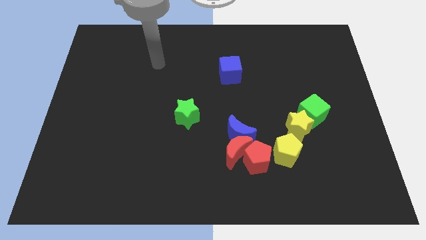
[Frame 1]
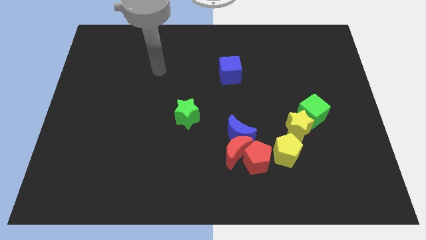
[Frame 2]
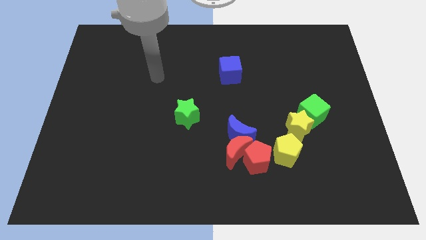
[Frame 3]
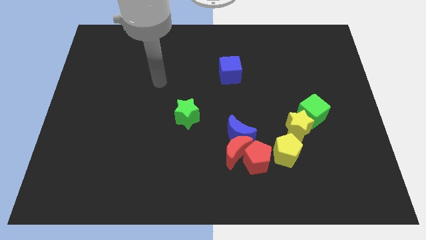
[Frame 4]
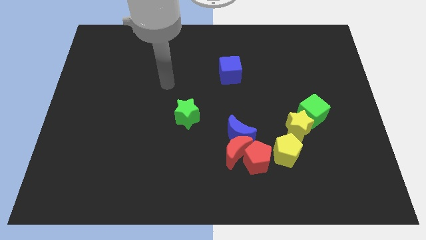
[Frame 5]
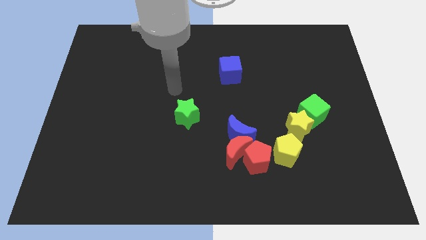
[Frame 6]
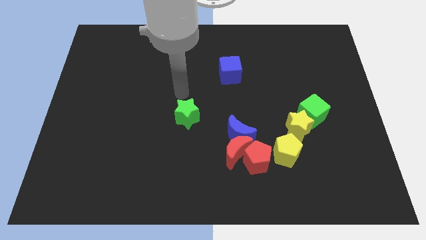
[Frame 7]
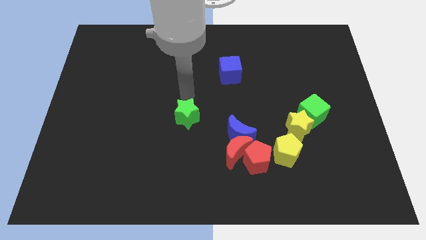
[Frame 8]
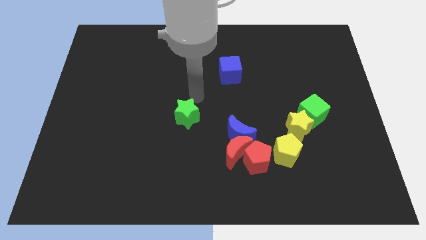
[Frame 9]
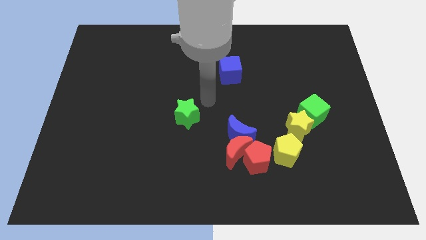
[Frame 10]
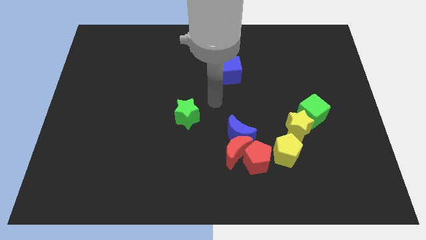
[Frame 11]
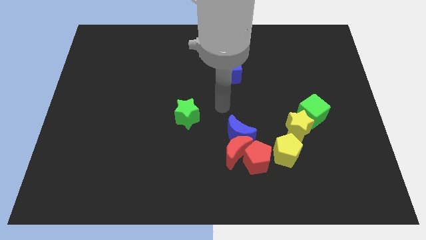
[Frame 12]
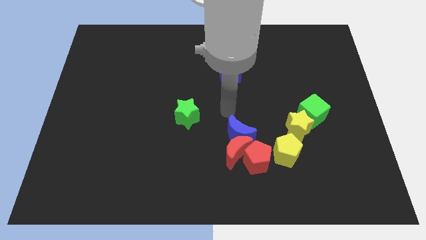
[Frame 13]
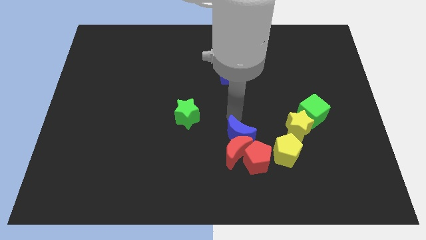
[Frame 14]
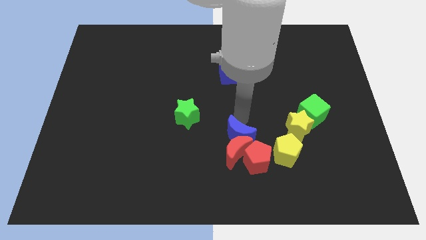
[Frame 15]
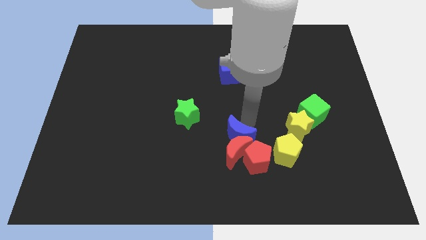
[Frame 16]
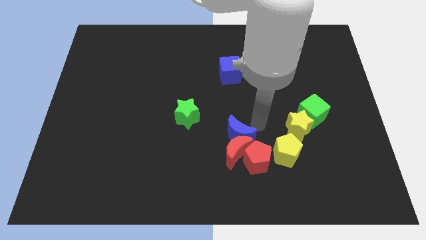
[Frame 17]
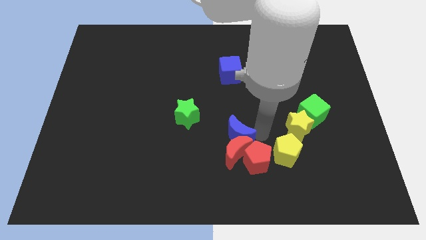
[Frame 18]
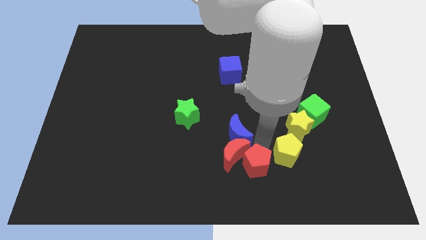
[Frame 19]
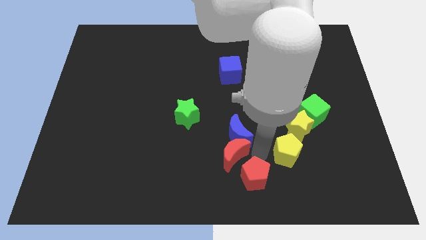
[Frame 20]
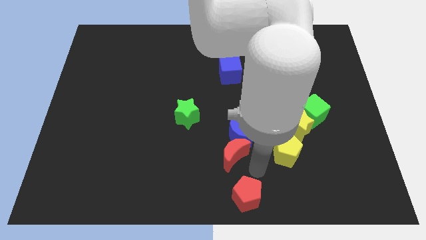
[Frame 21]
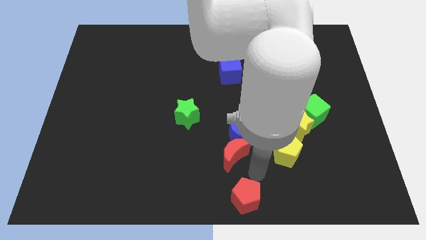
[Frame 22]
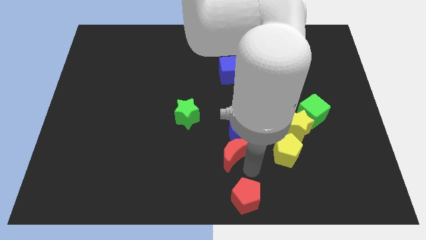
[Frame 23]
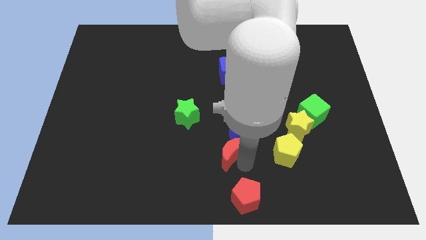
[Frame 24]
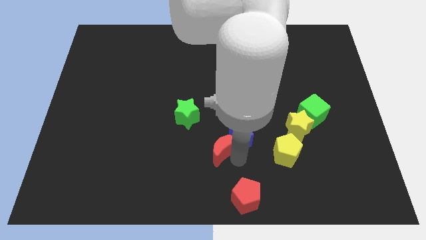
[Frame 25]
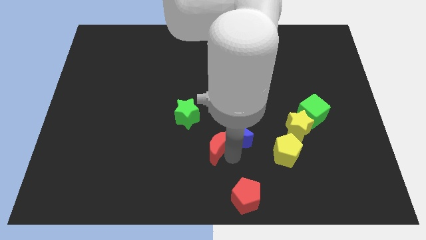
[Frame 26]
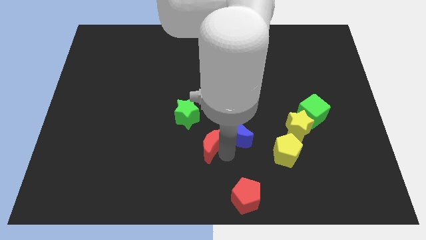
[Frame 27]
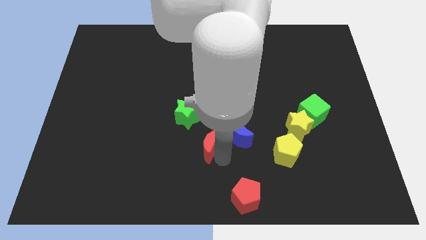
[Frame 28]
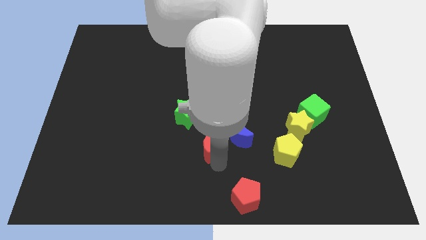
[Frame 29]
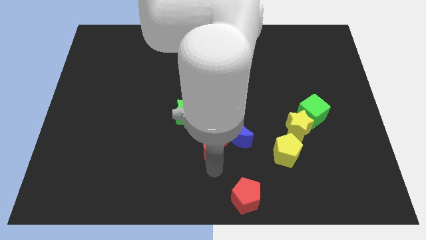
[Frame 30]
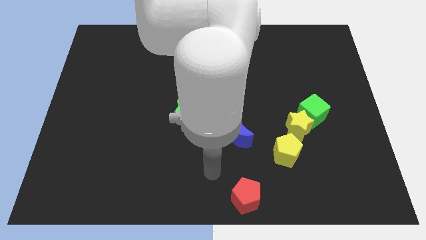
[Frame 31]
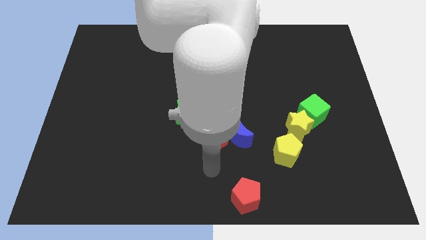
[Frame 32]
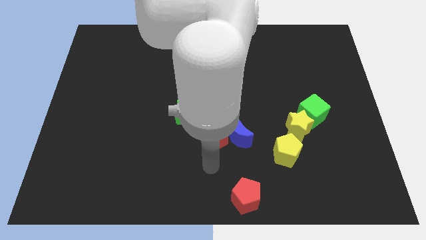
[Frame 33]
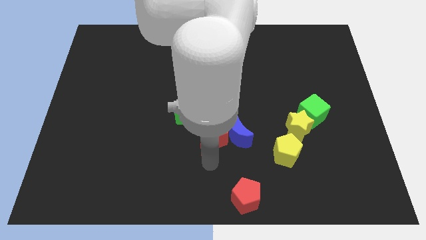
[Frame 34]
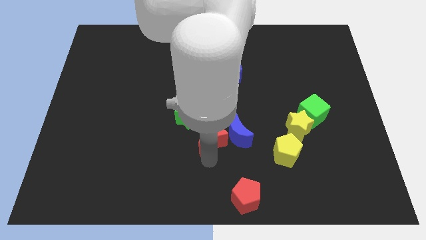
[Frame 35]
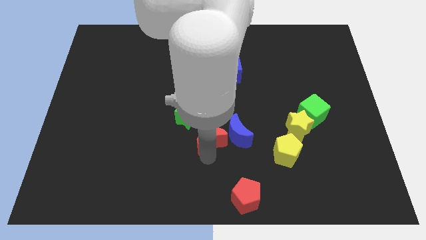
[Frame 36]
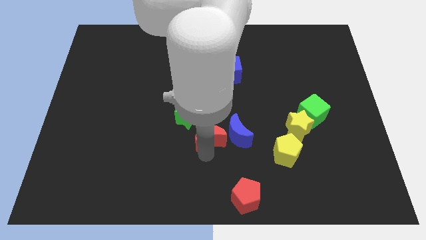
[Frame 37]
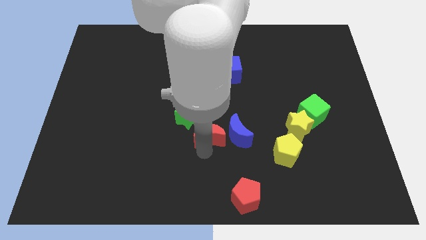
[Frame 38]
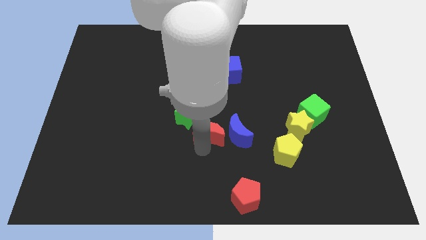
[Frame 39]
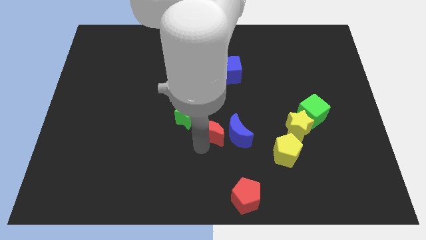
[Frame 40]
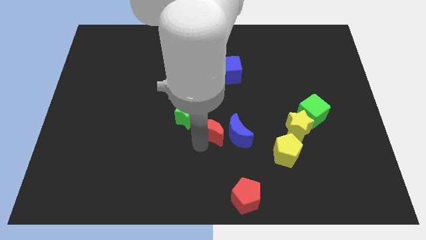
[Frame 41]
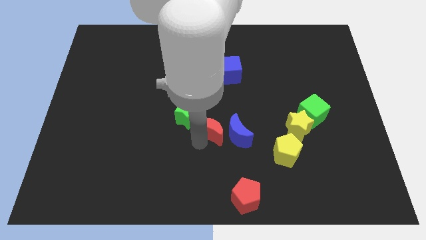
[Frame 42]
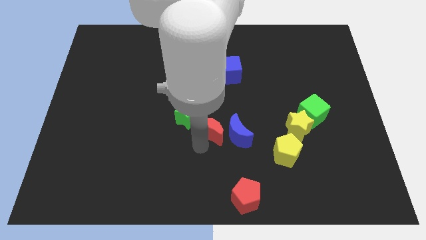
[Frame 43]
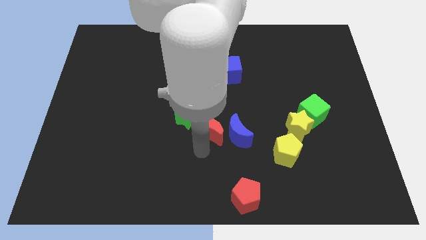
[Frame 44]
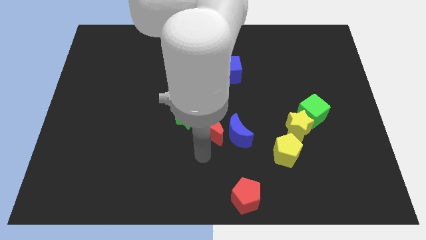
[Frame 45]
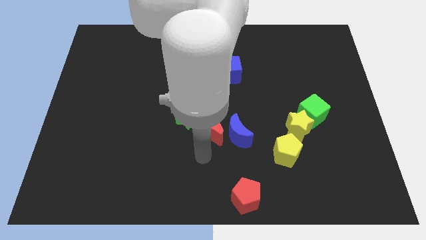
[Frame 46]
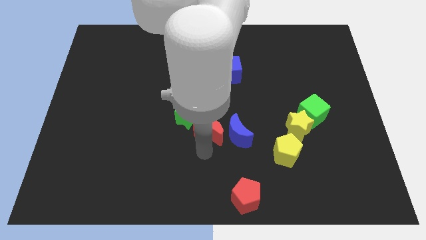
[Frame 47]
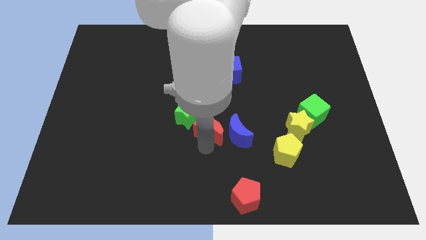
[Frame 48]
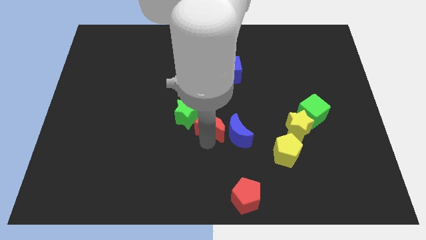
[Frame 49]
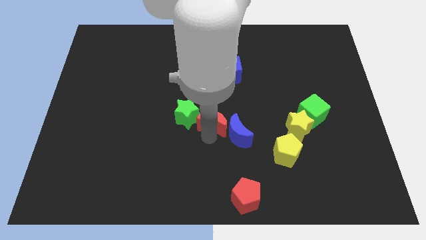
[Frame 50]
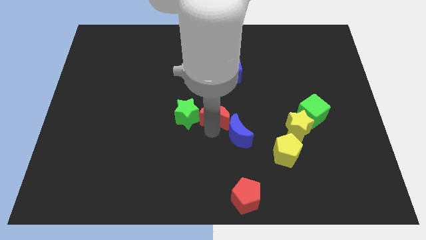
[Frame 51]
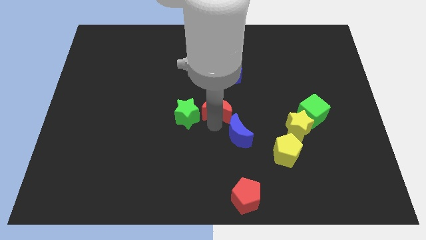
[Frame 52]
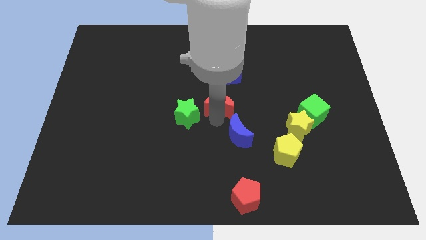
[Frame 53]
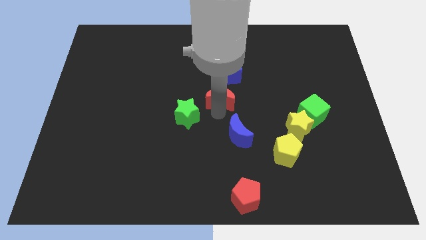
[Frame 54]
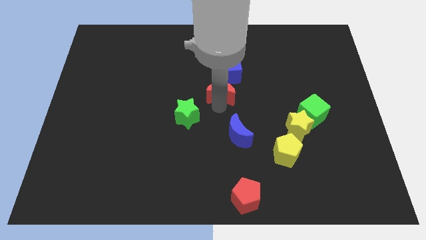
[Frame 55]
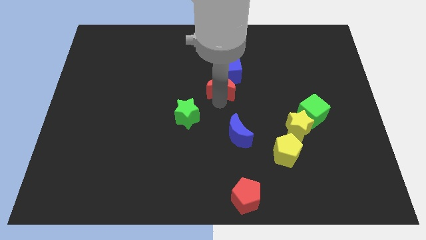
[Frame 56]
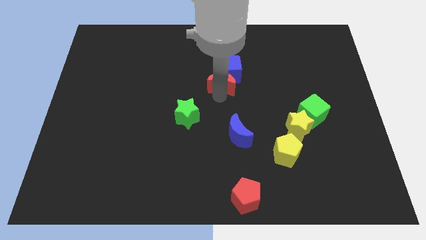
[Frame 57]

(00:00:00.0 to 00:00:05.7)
push the red moon to the blue cube

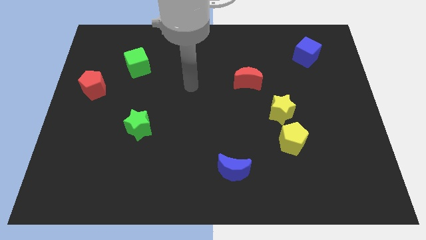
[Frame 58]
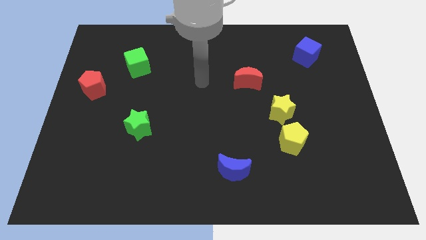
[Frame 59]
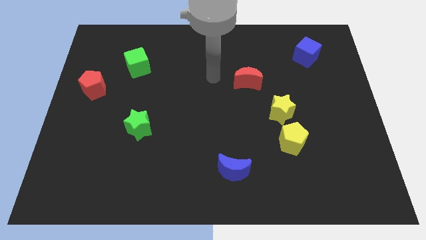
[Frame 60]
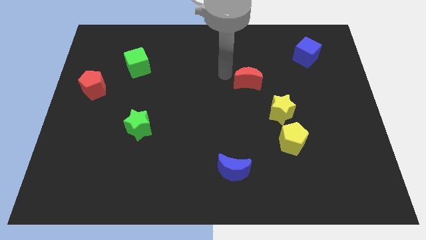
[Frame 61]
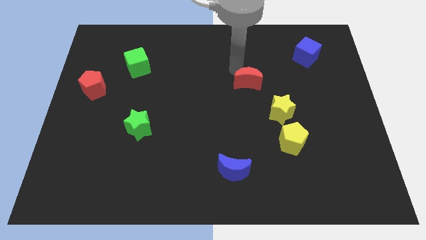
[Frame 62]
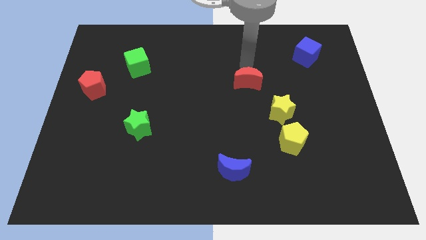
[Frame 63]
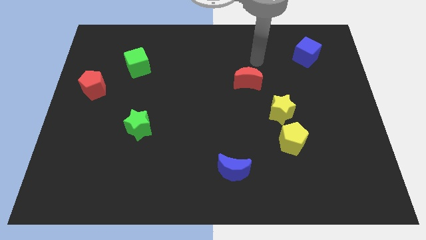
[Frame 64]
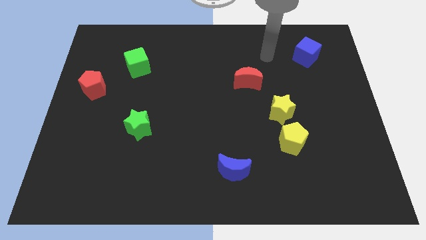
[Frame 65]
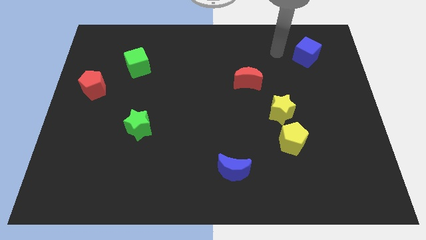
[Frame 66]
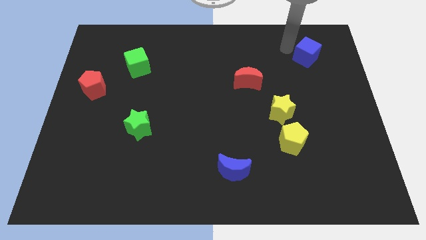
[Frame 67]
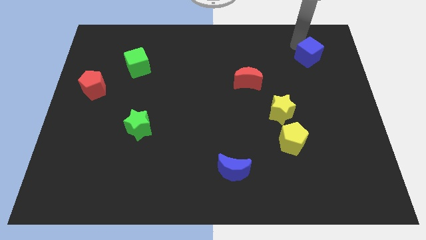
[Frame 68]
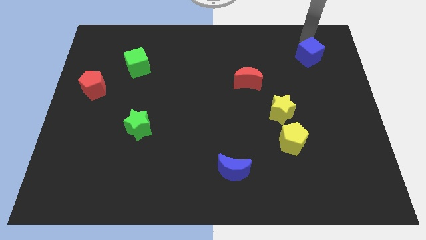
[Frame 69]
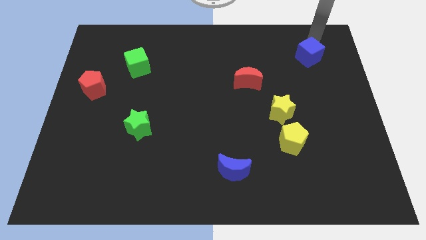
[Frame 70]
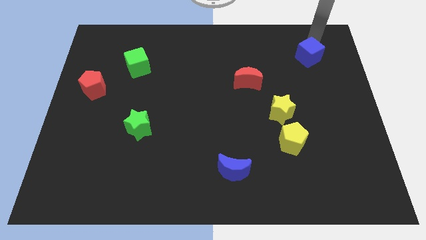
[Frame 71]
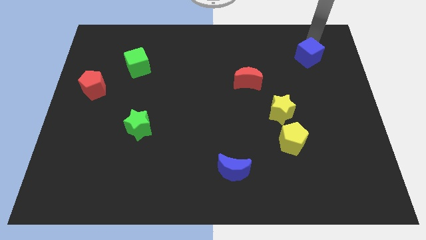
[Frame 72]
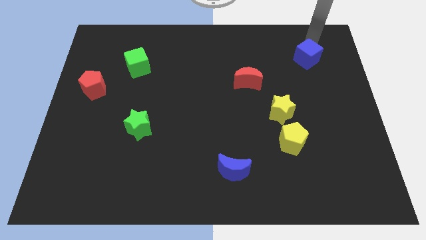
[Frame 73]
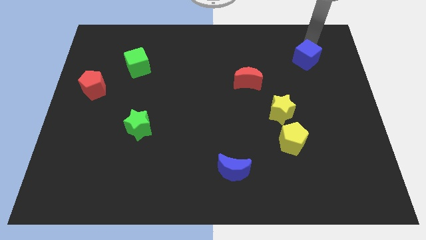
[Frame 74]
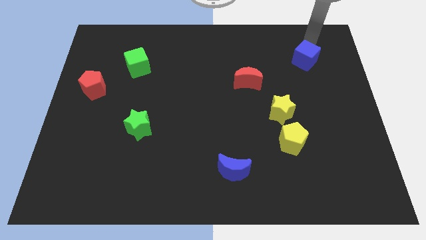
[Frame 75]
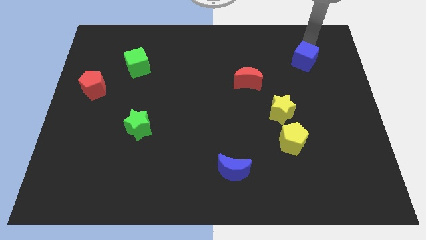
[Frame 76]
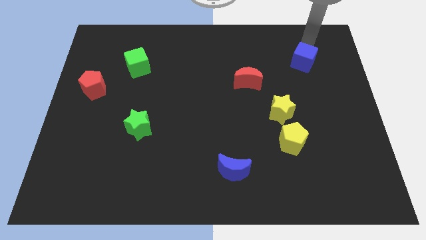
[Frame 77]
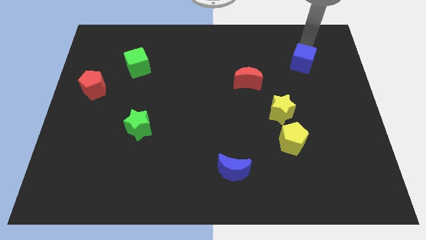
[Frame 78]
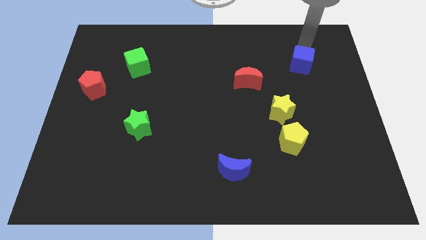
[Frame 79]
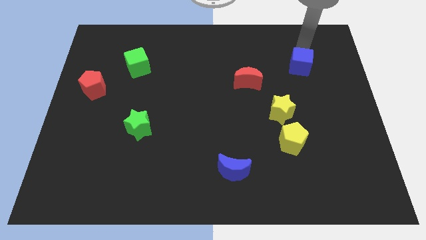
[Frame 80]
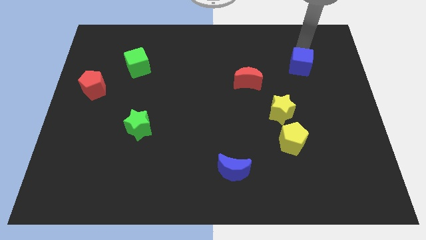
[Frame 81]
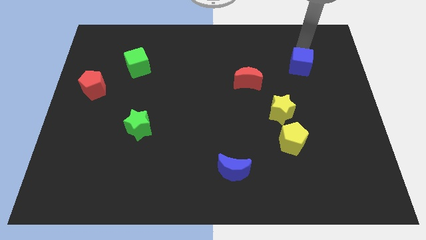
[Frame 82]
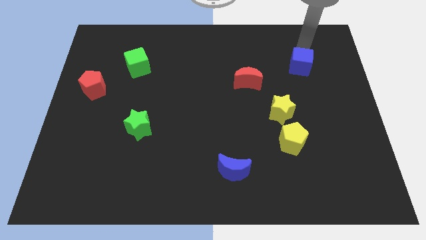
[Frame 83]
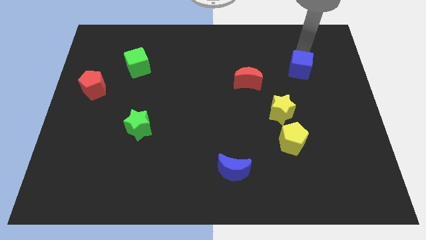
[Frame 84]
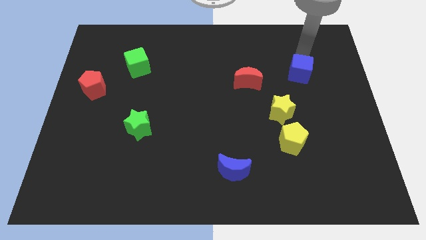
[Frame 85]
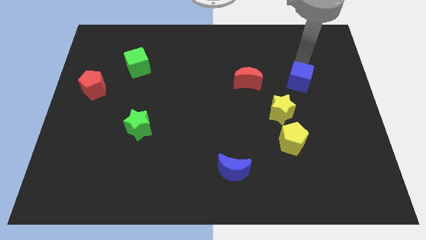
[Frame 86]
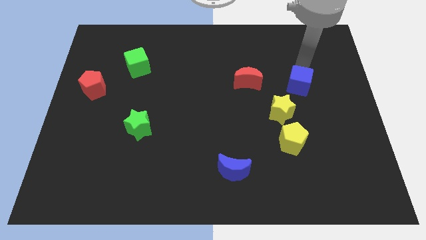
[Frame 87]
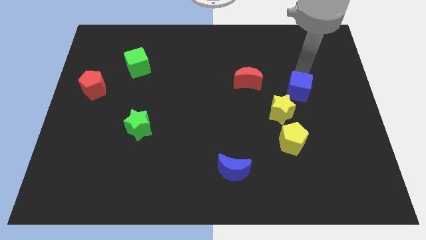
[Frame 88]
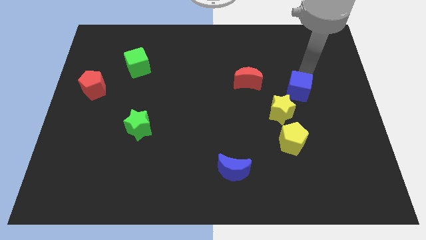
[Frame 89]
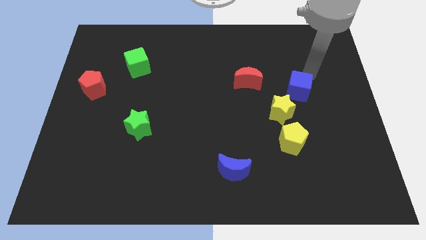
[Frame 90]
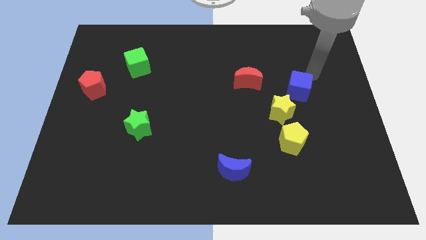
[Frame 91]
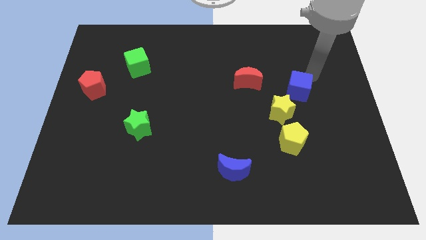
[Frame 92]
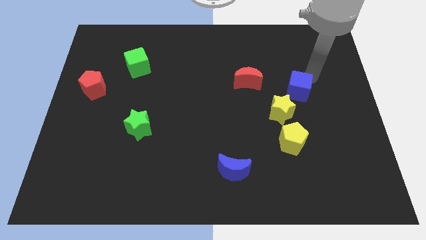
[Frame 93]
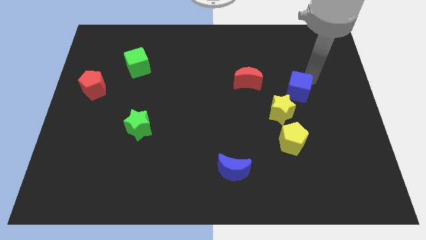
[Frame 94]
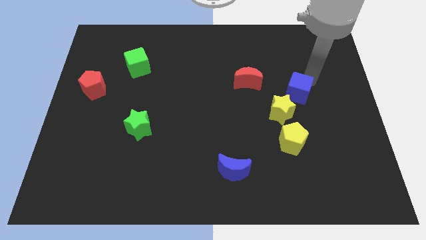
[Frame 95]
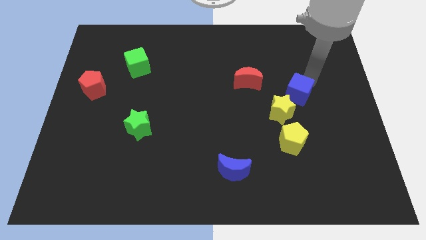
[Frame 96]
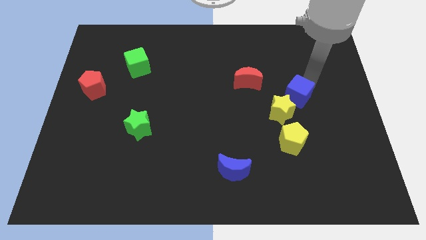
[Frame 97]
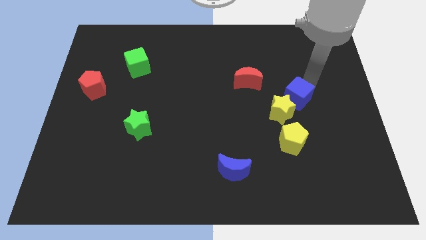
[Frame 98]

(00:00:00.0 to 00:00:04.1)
move the blue cube towards the yellow star
